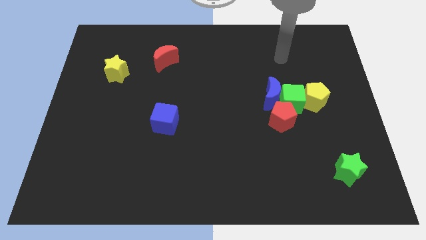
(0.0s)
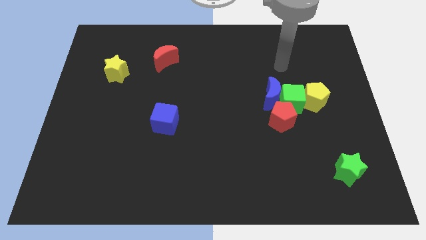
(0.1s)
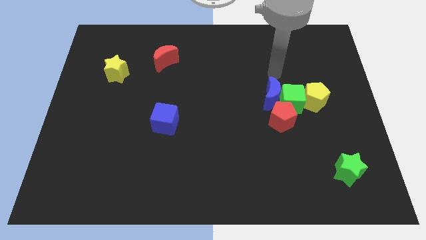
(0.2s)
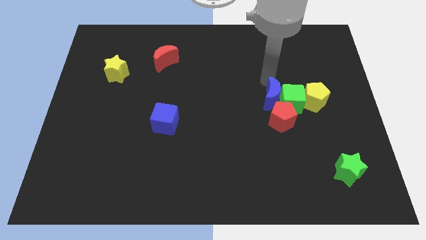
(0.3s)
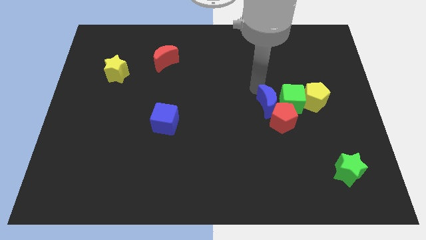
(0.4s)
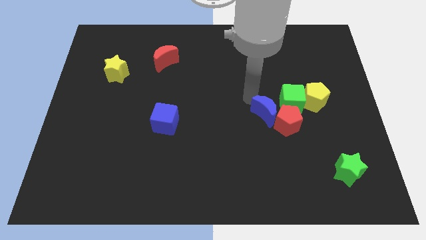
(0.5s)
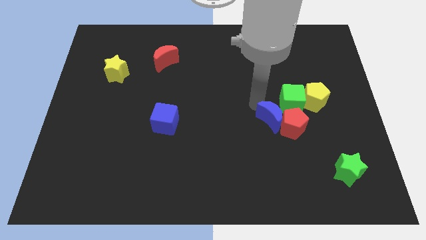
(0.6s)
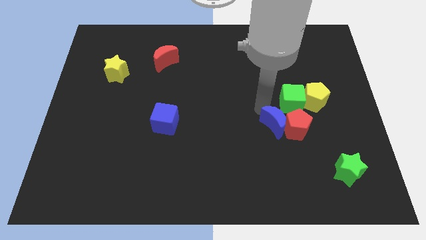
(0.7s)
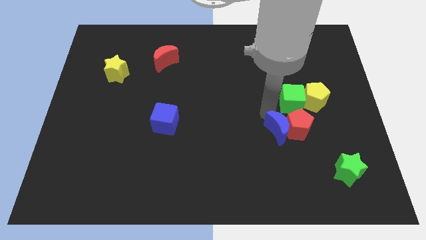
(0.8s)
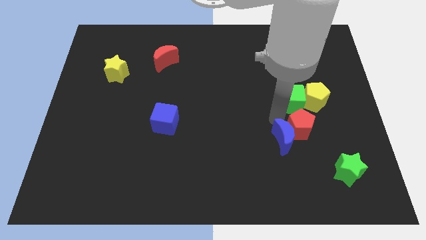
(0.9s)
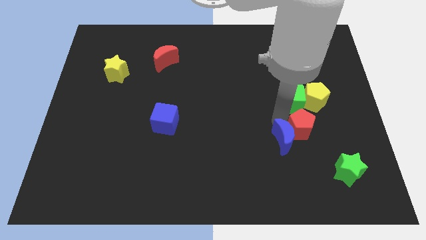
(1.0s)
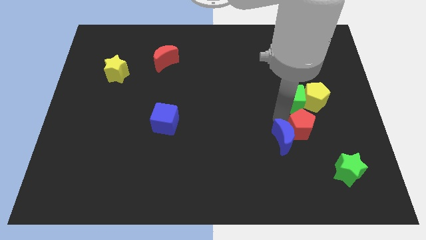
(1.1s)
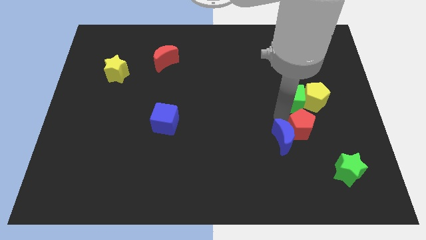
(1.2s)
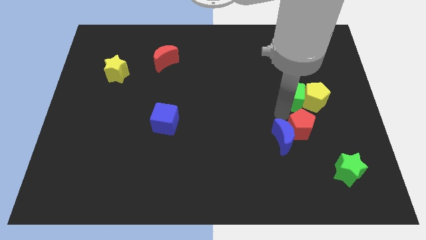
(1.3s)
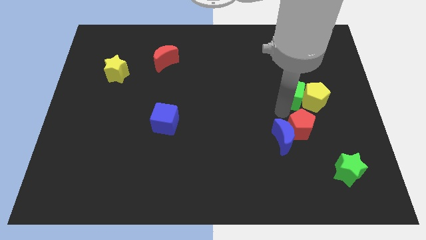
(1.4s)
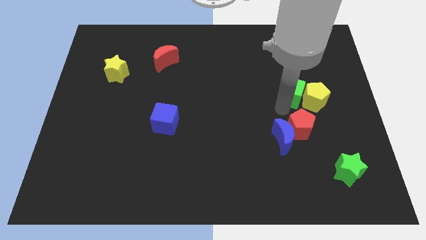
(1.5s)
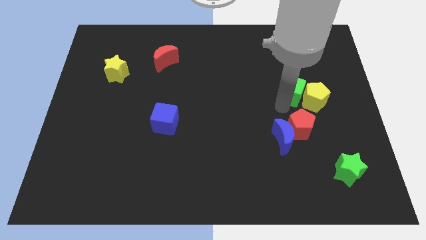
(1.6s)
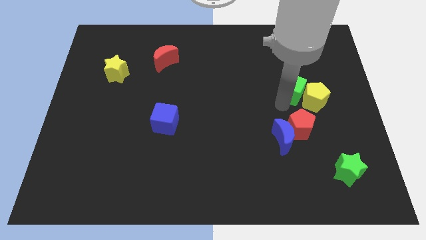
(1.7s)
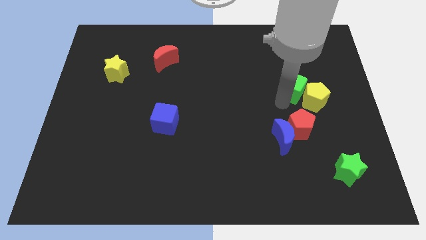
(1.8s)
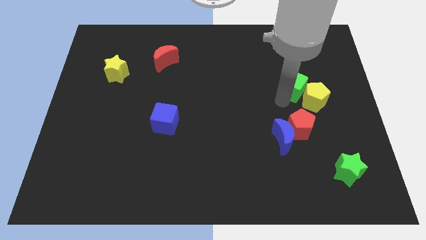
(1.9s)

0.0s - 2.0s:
move the green cube away from the clump

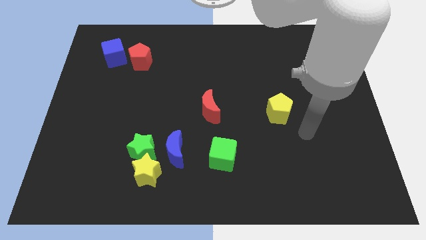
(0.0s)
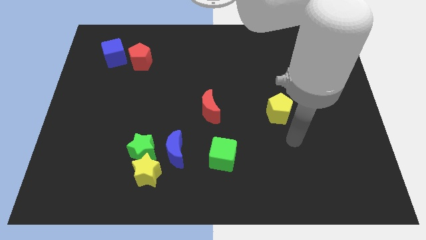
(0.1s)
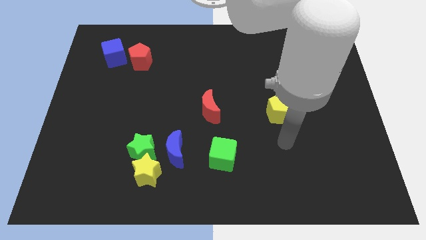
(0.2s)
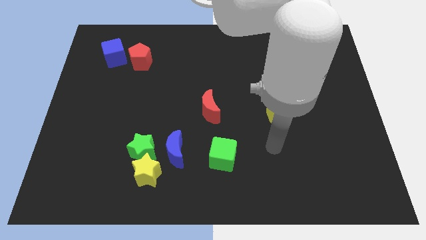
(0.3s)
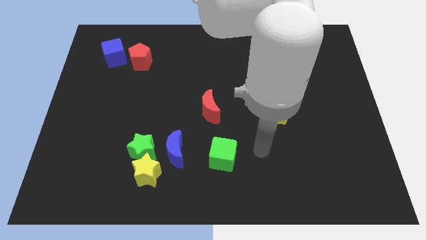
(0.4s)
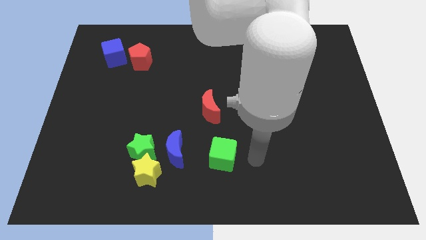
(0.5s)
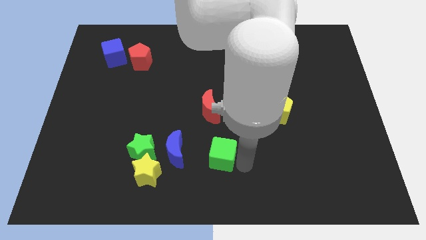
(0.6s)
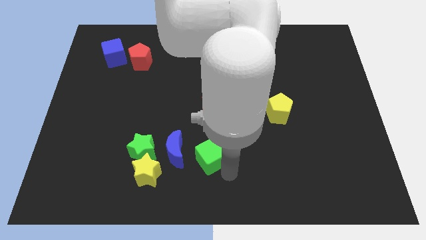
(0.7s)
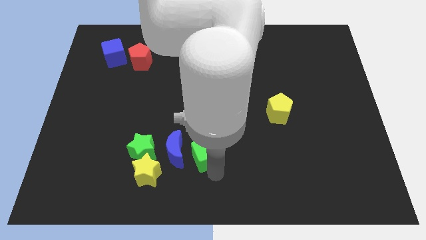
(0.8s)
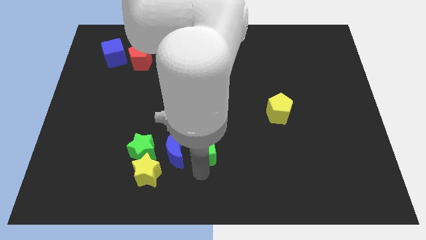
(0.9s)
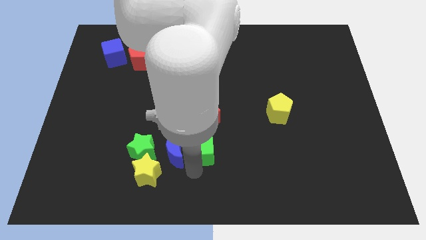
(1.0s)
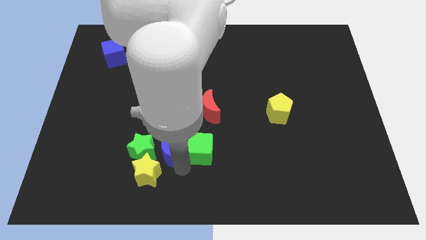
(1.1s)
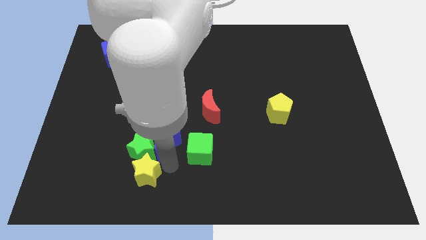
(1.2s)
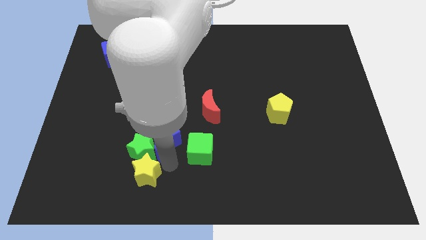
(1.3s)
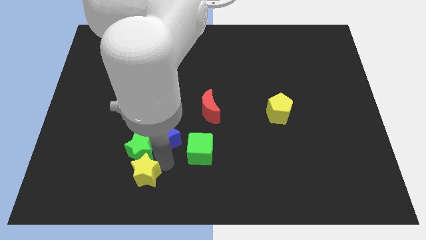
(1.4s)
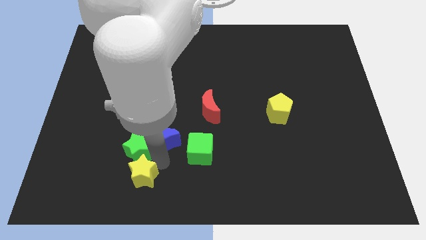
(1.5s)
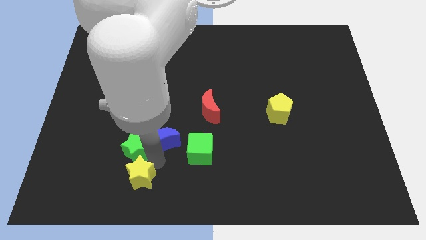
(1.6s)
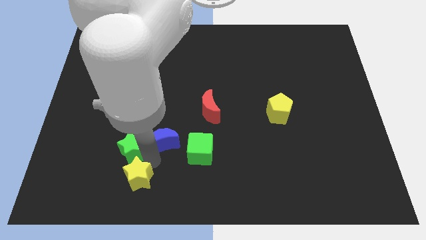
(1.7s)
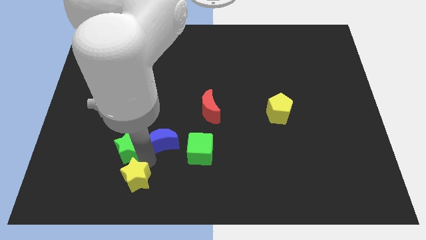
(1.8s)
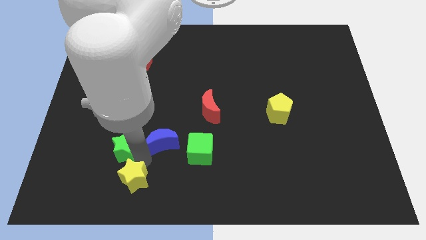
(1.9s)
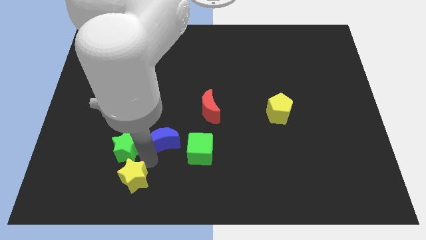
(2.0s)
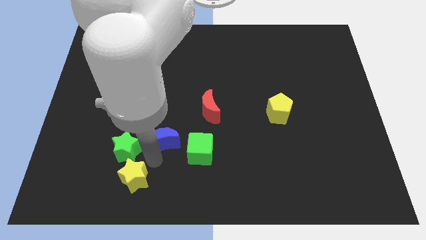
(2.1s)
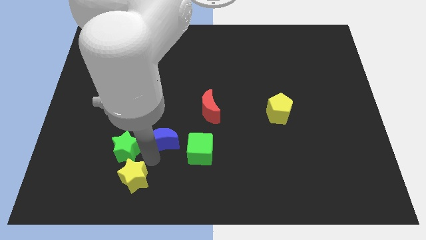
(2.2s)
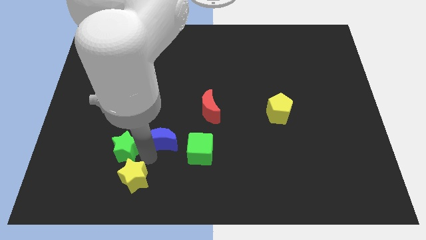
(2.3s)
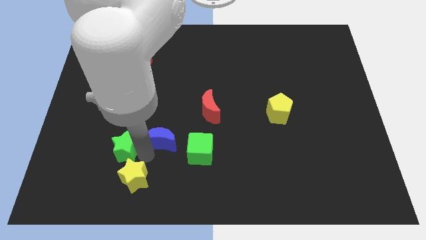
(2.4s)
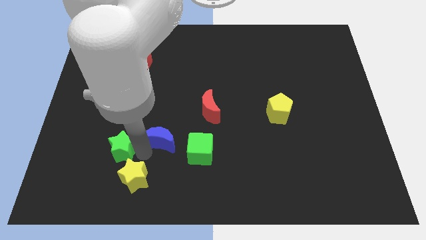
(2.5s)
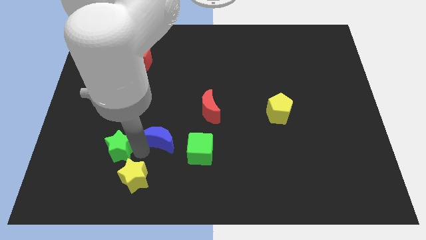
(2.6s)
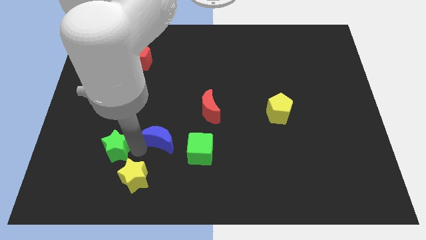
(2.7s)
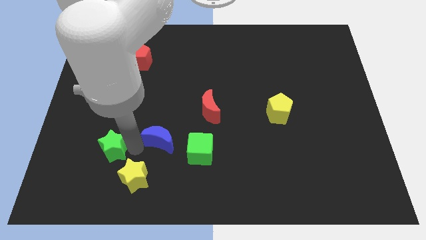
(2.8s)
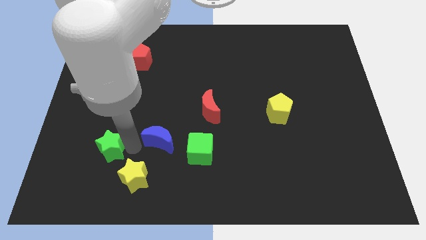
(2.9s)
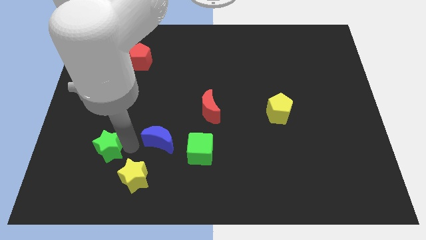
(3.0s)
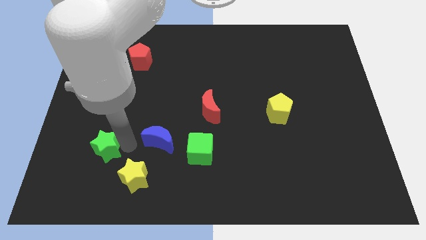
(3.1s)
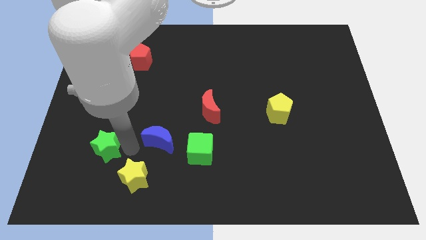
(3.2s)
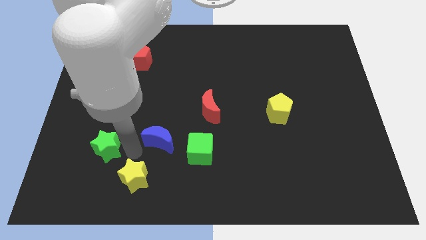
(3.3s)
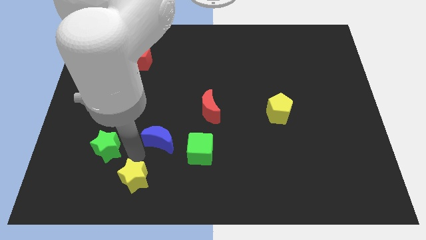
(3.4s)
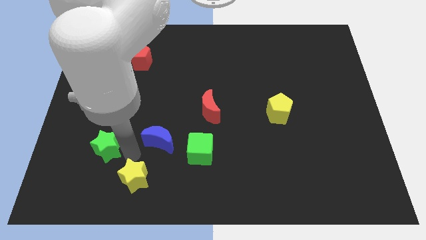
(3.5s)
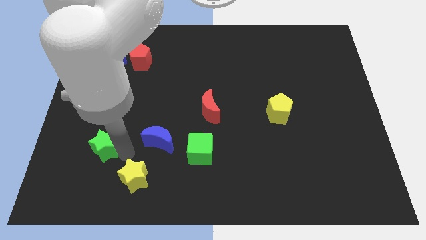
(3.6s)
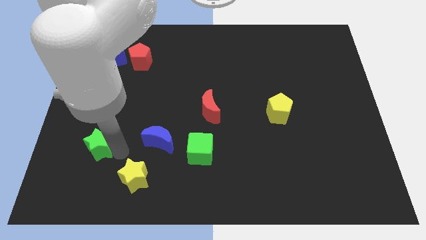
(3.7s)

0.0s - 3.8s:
move the green star away from the yellow star and blue moon

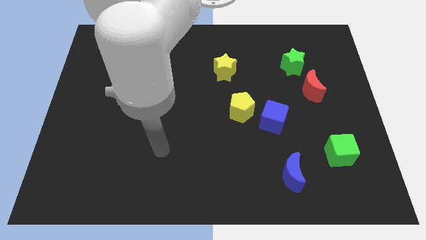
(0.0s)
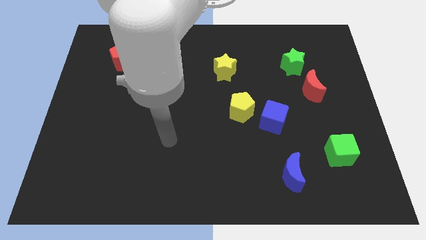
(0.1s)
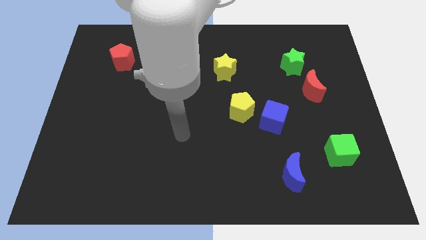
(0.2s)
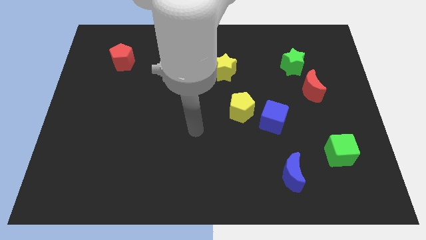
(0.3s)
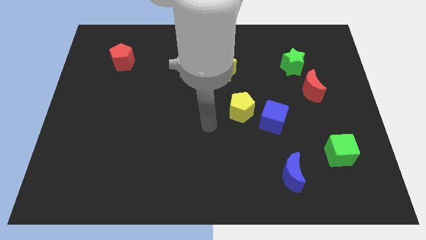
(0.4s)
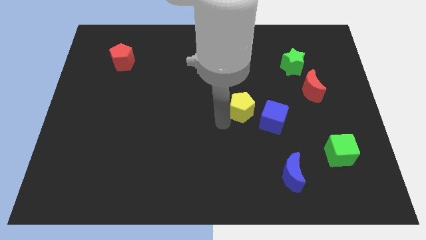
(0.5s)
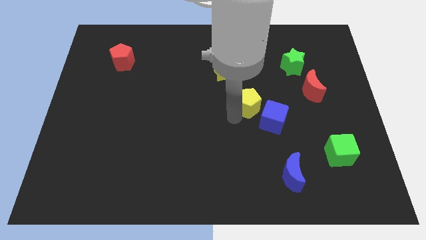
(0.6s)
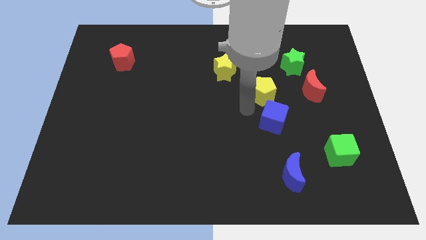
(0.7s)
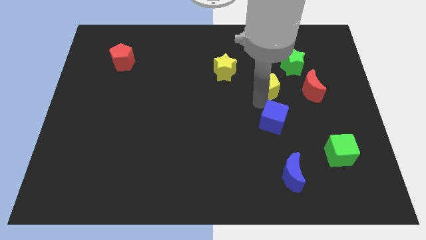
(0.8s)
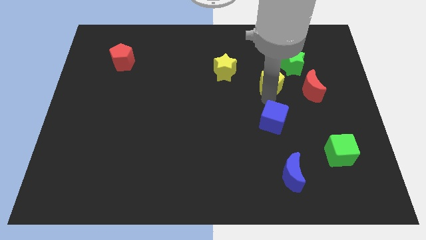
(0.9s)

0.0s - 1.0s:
move the blue cube away from the yellow pentagon

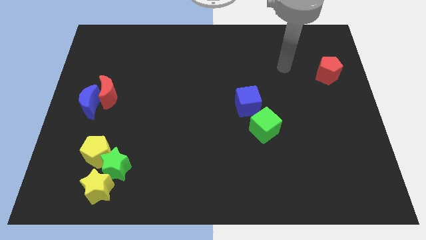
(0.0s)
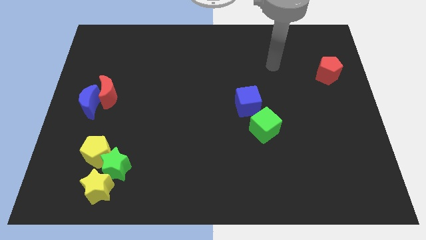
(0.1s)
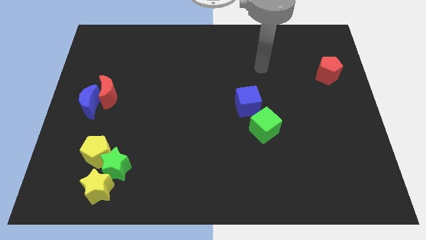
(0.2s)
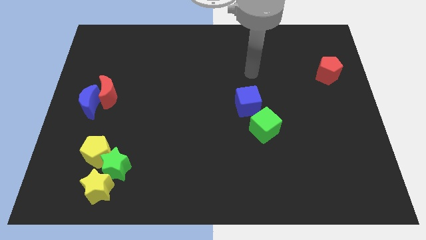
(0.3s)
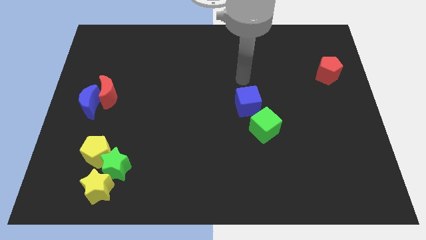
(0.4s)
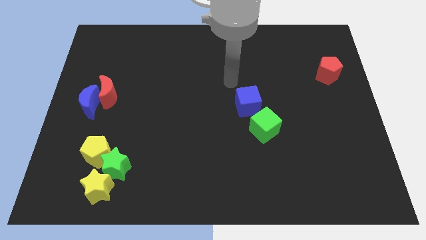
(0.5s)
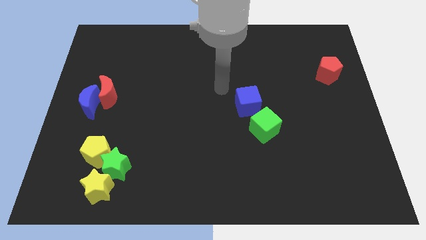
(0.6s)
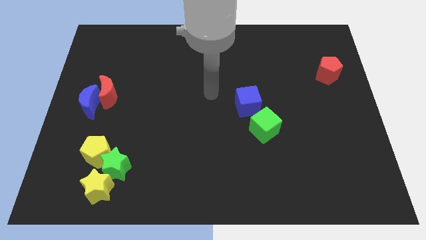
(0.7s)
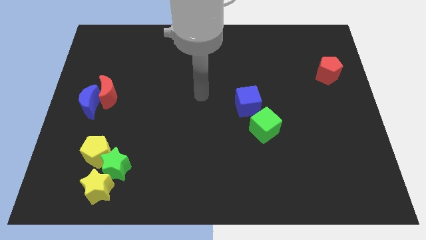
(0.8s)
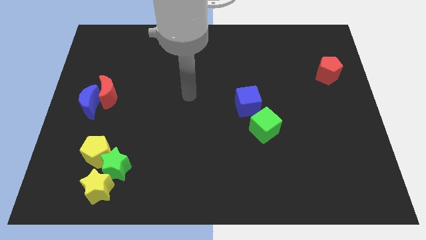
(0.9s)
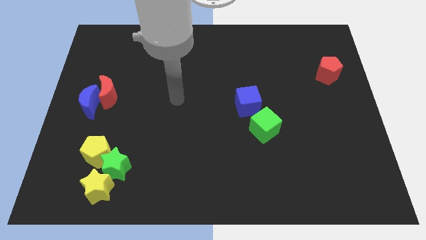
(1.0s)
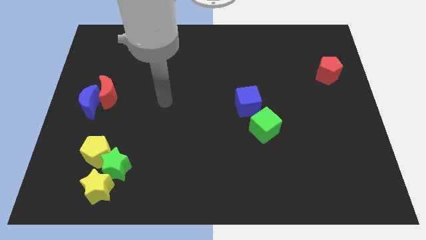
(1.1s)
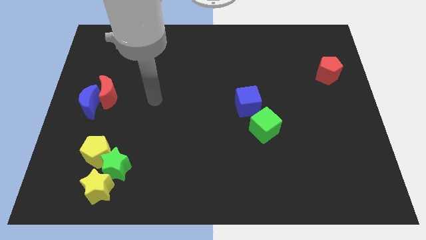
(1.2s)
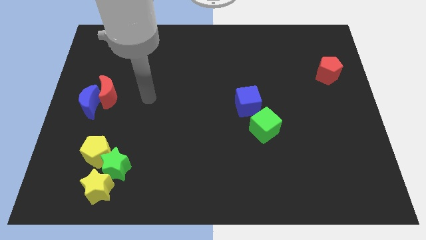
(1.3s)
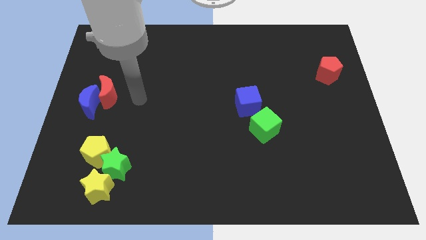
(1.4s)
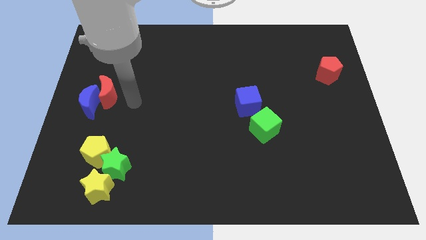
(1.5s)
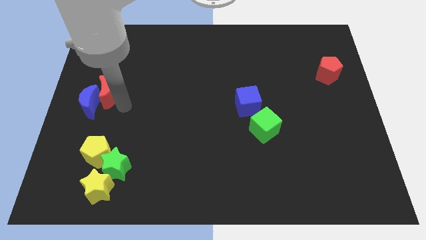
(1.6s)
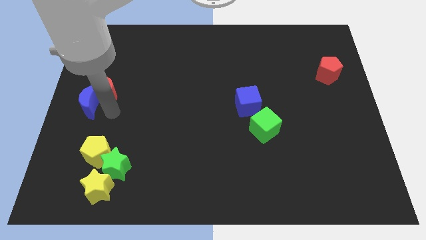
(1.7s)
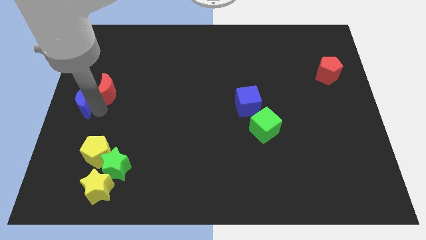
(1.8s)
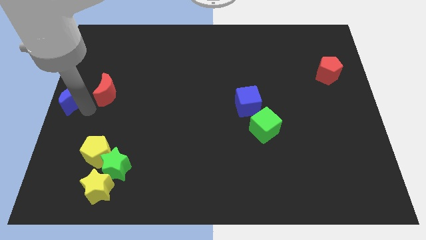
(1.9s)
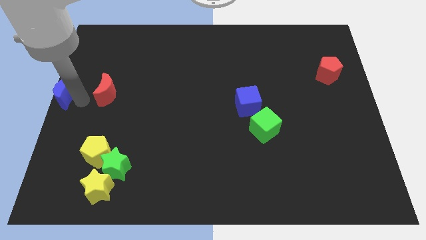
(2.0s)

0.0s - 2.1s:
pull the red moon apart from the blue moon

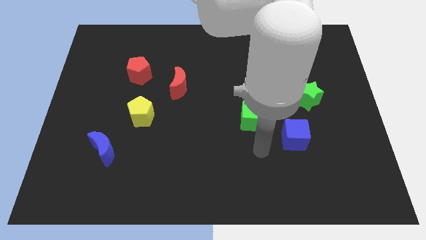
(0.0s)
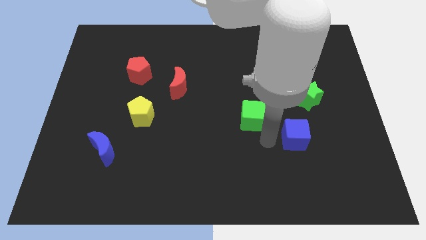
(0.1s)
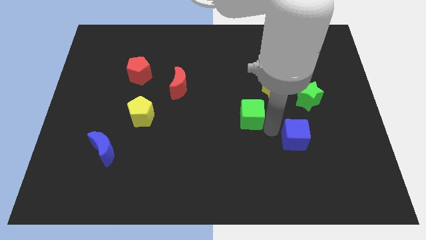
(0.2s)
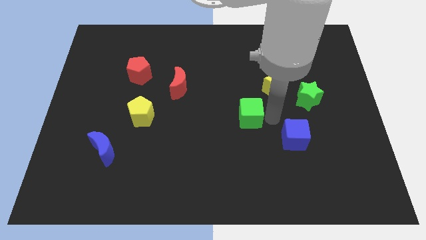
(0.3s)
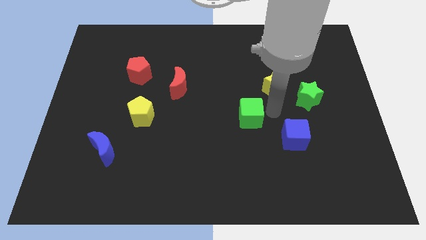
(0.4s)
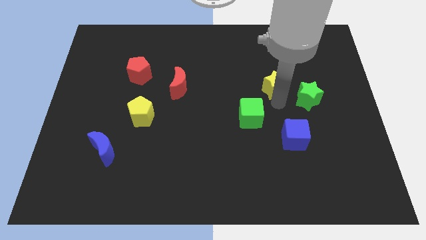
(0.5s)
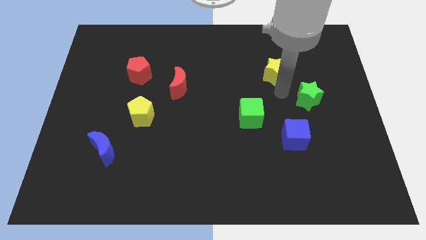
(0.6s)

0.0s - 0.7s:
move the green star away from the yellow star
